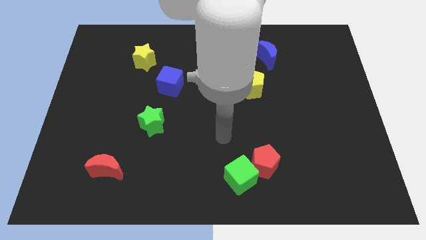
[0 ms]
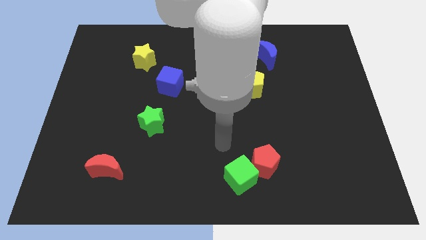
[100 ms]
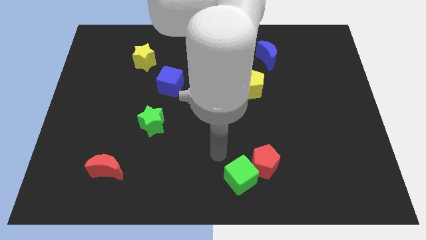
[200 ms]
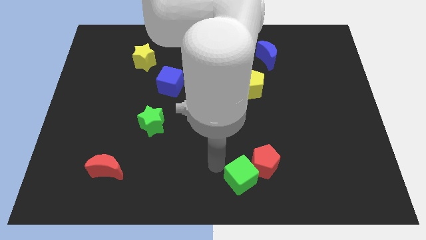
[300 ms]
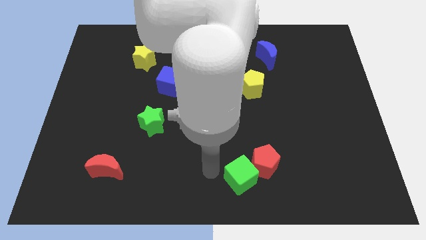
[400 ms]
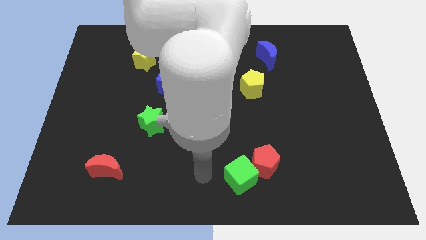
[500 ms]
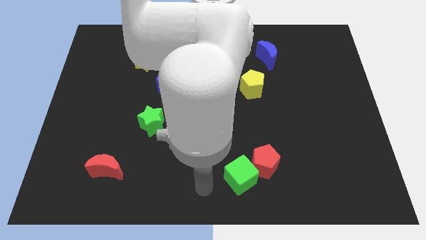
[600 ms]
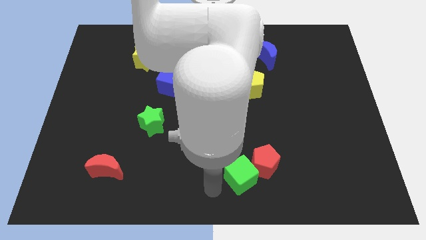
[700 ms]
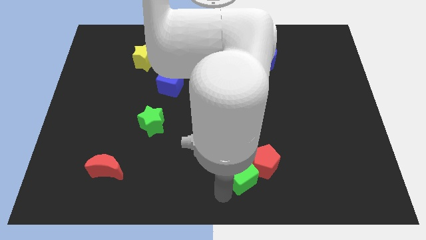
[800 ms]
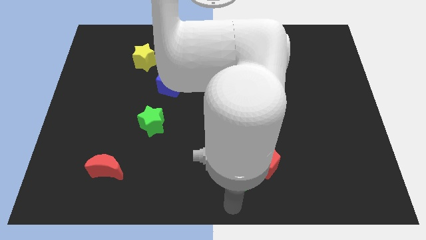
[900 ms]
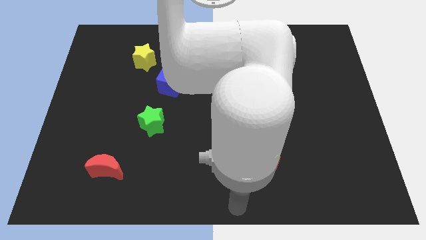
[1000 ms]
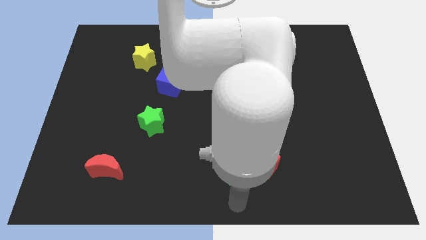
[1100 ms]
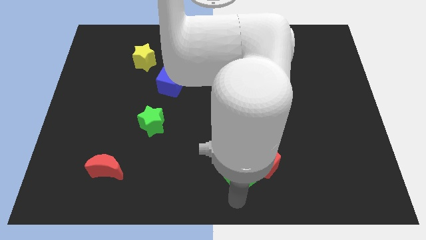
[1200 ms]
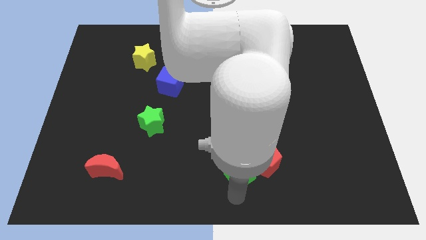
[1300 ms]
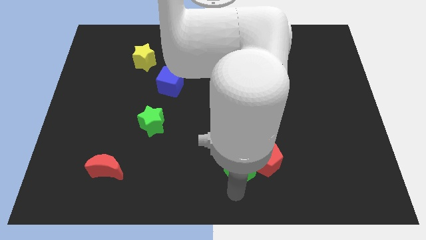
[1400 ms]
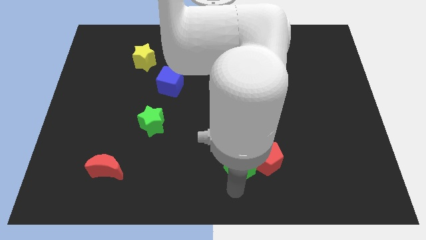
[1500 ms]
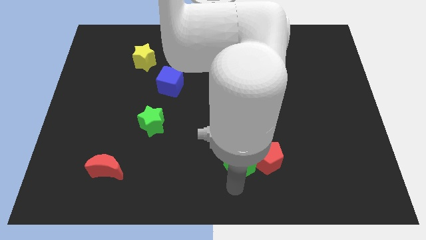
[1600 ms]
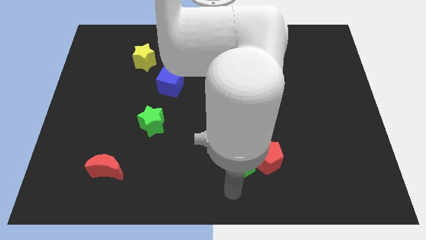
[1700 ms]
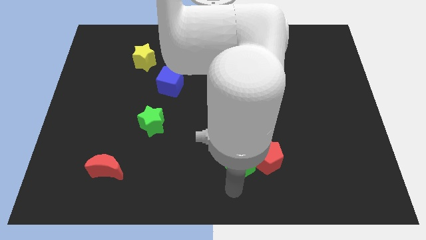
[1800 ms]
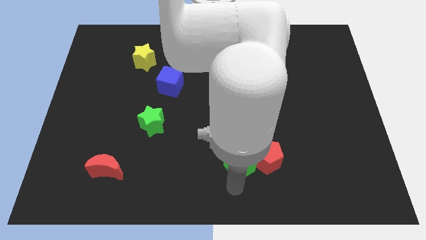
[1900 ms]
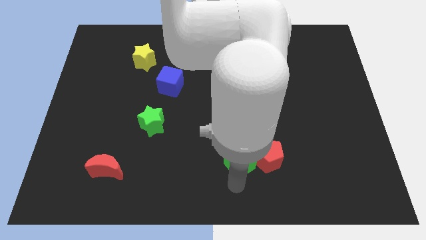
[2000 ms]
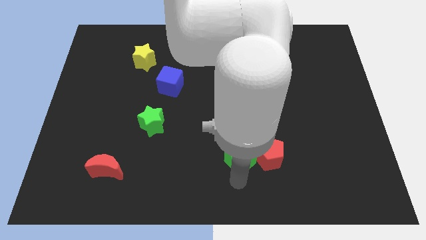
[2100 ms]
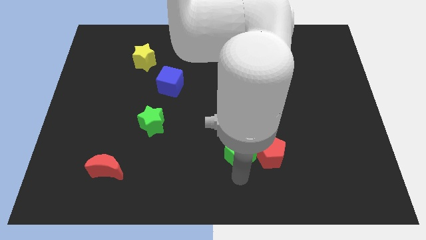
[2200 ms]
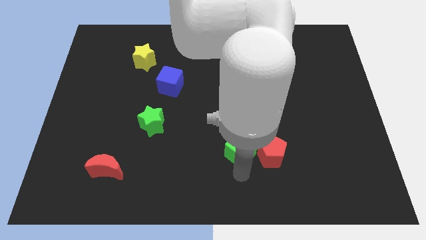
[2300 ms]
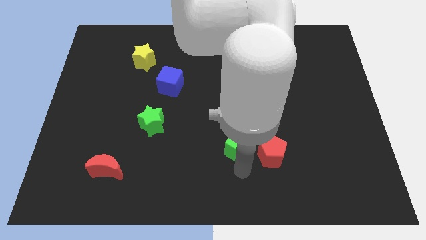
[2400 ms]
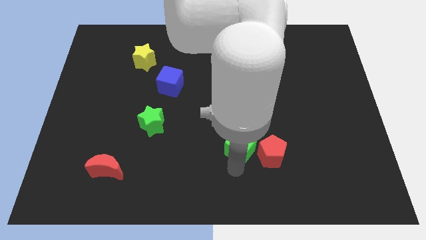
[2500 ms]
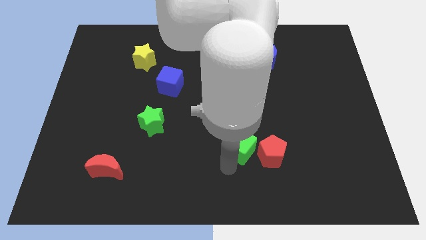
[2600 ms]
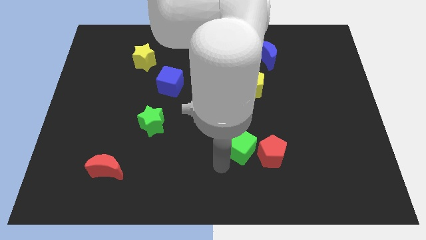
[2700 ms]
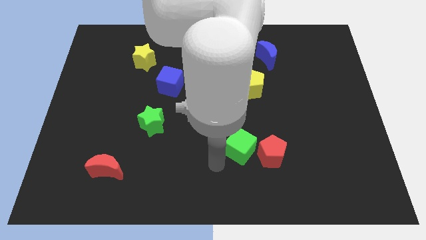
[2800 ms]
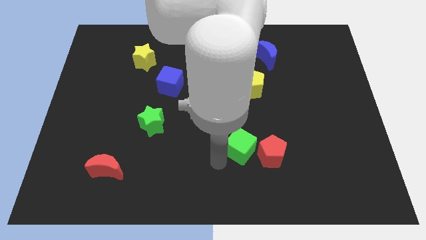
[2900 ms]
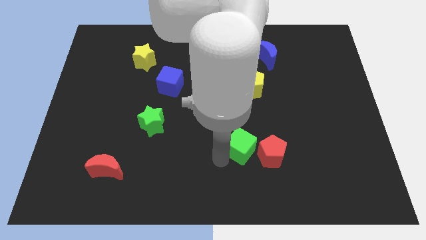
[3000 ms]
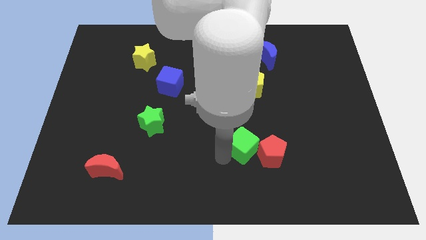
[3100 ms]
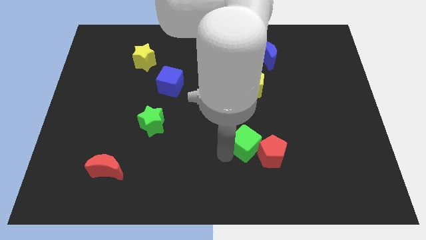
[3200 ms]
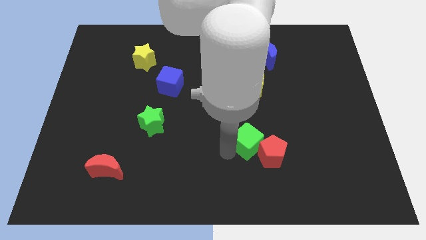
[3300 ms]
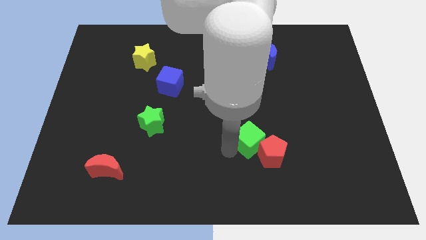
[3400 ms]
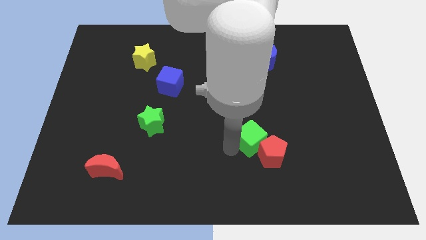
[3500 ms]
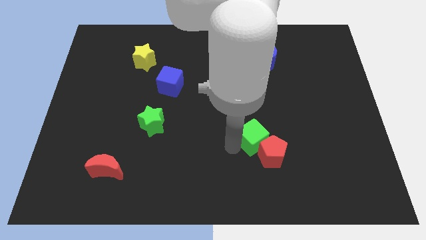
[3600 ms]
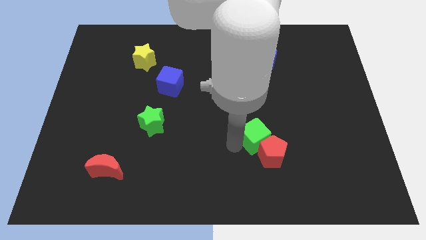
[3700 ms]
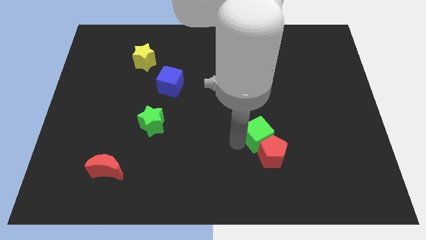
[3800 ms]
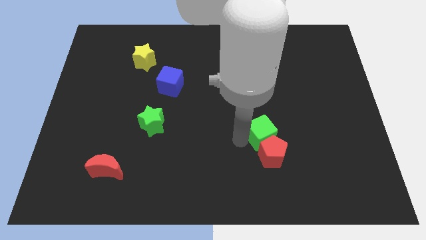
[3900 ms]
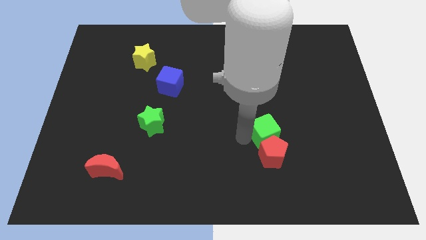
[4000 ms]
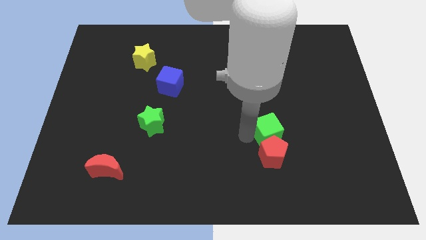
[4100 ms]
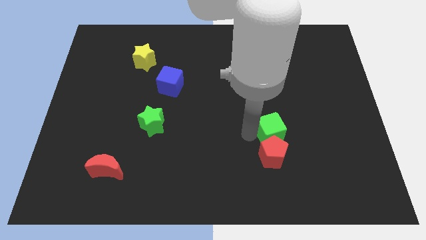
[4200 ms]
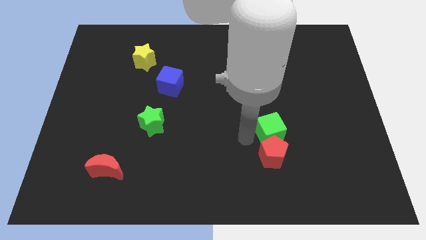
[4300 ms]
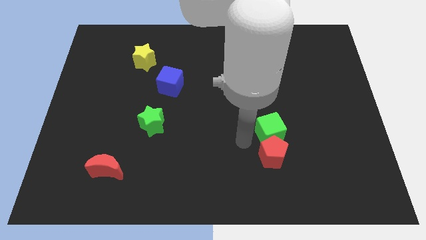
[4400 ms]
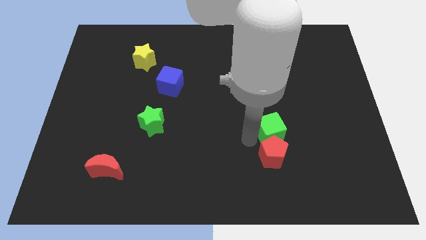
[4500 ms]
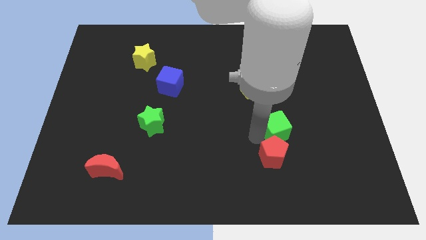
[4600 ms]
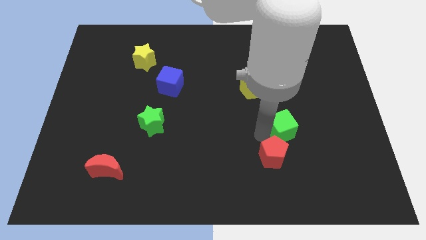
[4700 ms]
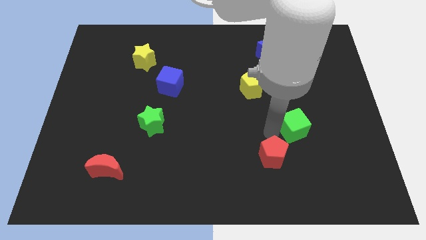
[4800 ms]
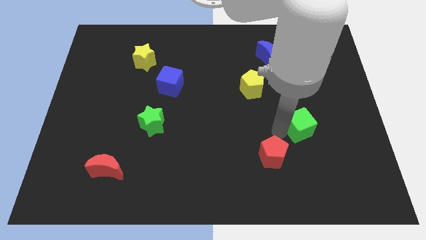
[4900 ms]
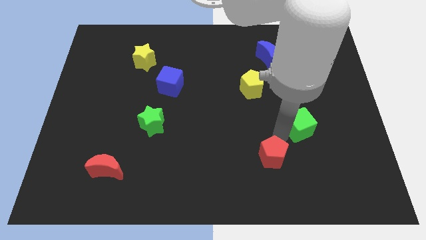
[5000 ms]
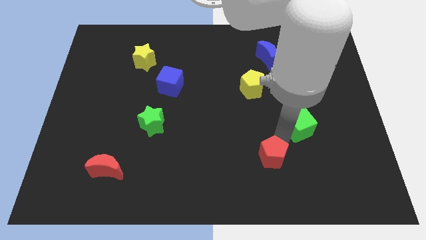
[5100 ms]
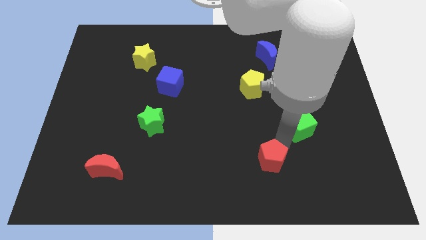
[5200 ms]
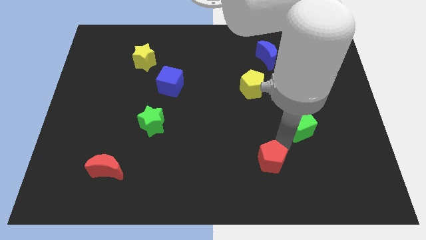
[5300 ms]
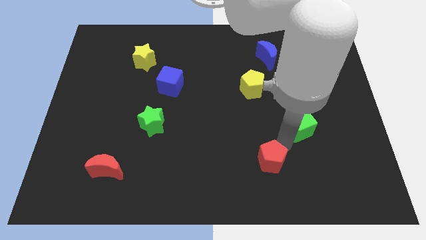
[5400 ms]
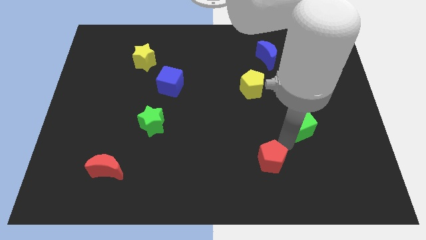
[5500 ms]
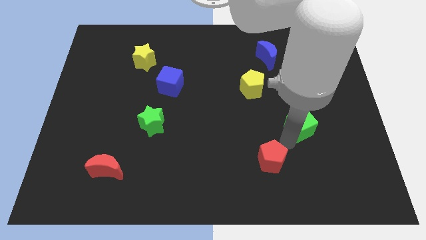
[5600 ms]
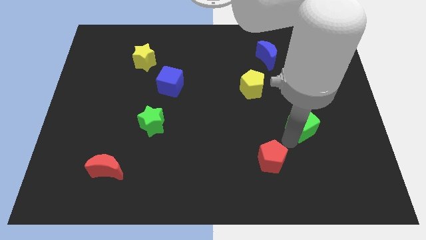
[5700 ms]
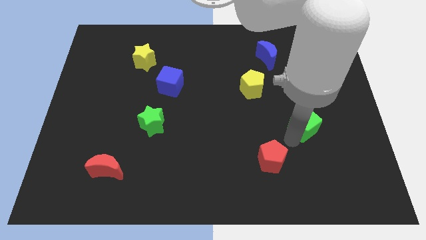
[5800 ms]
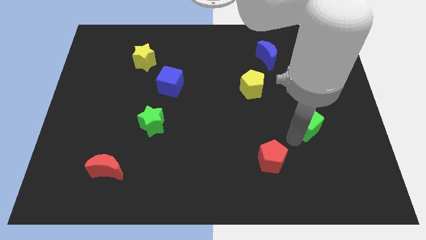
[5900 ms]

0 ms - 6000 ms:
slide the green cube up and to the right

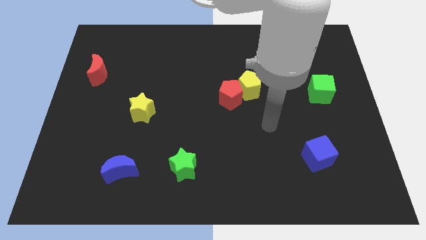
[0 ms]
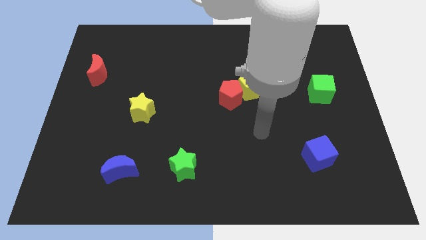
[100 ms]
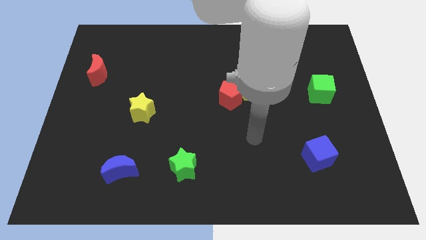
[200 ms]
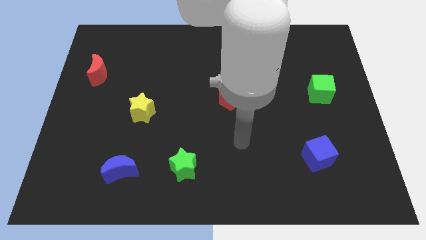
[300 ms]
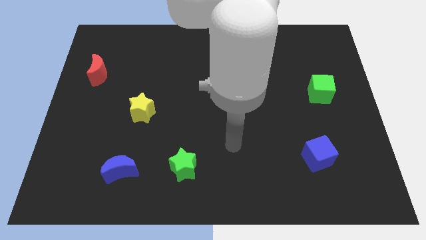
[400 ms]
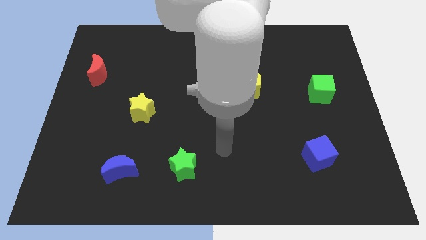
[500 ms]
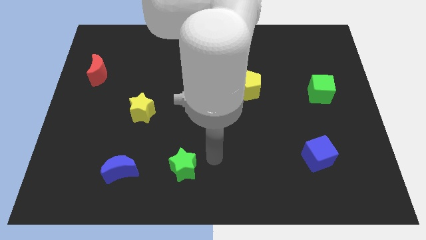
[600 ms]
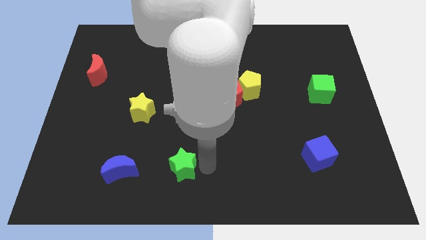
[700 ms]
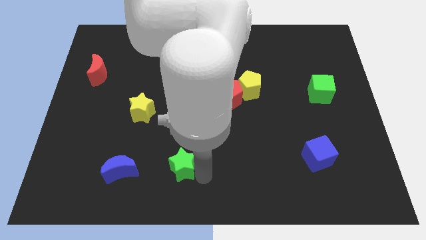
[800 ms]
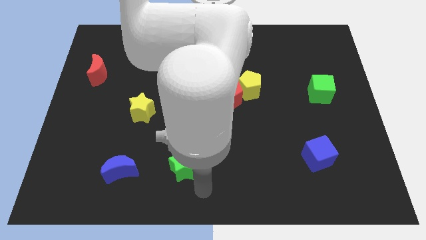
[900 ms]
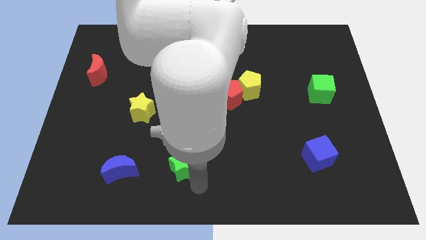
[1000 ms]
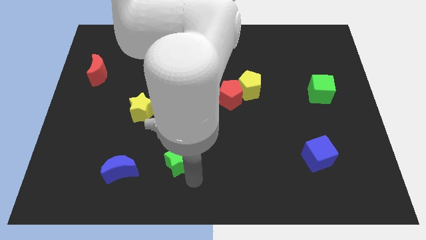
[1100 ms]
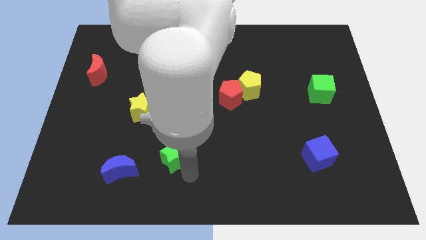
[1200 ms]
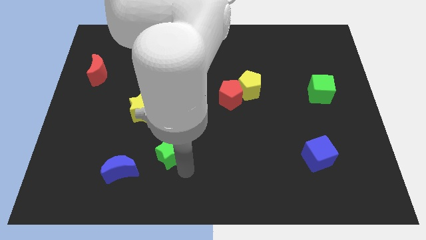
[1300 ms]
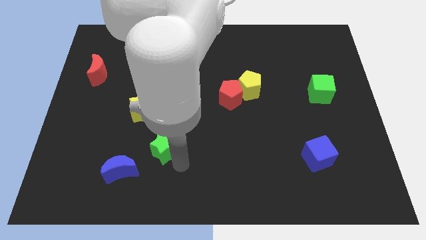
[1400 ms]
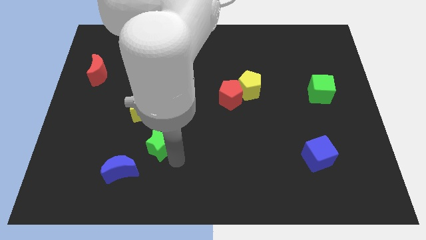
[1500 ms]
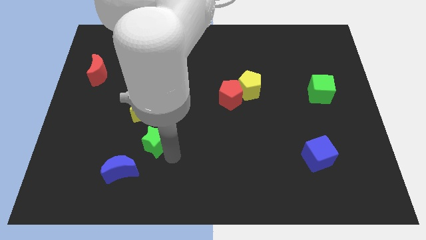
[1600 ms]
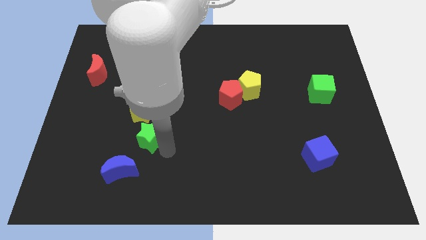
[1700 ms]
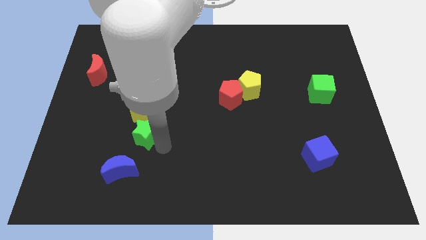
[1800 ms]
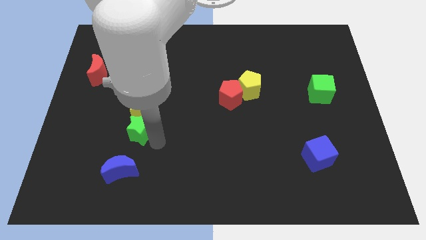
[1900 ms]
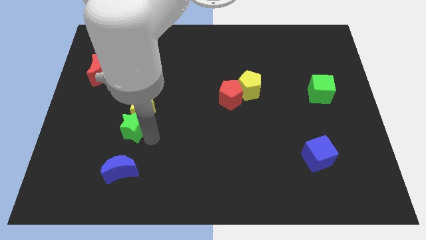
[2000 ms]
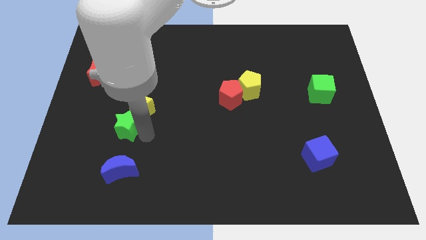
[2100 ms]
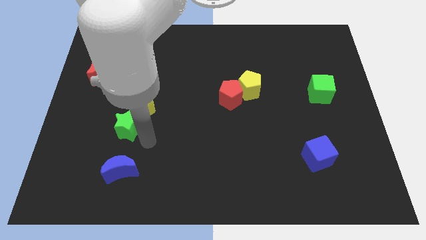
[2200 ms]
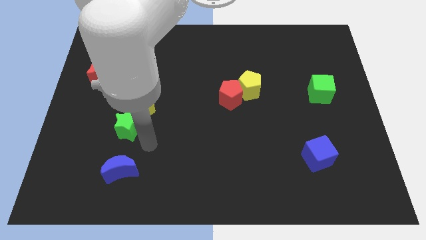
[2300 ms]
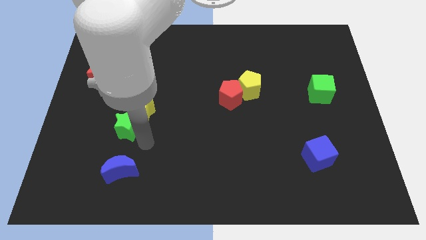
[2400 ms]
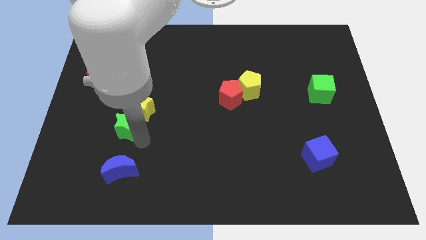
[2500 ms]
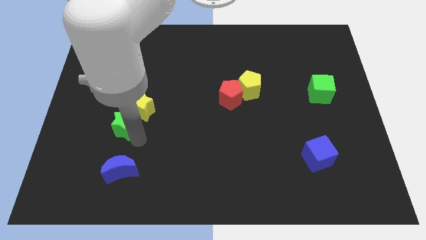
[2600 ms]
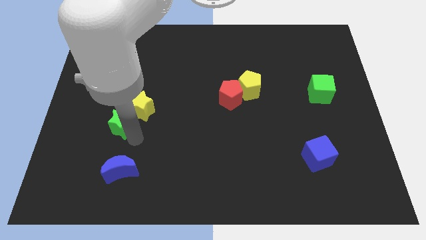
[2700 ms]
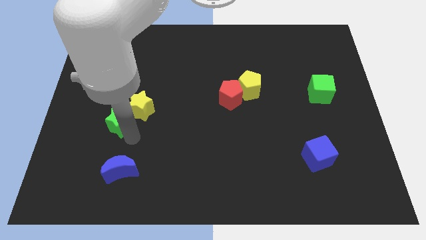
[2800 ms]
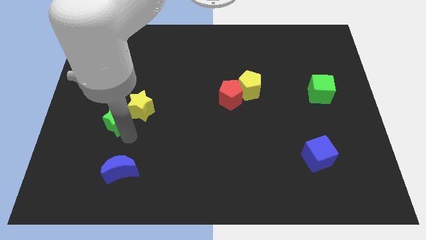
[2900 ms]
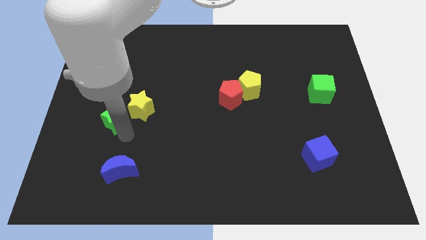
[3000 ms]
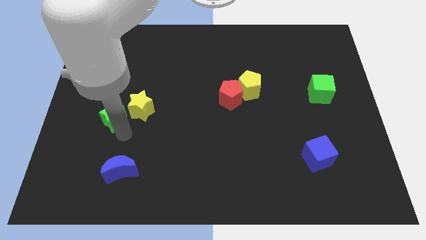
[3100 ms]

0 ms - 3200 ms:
push the green star upwards and left
